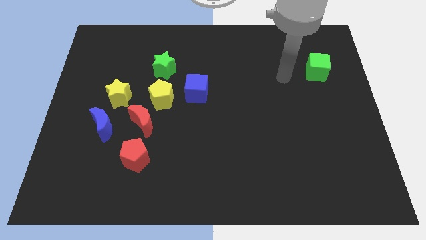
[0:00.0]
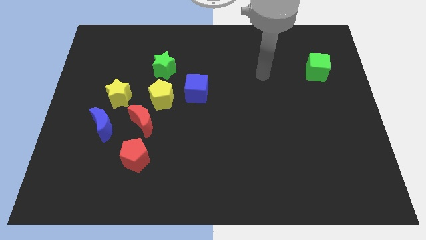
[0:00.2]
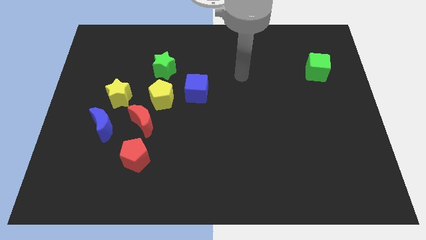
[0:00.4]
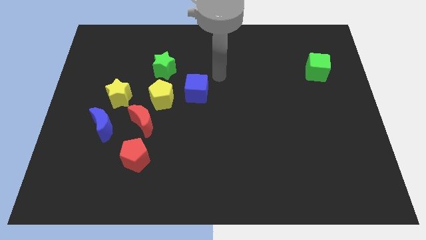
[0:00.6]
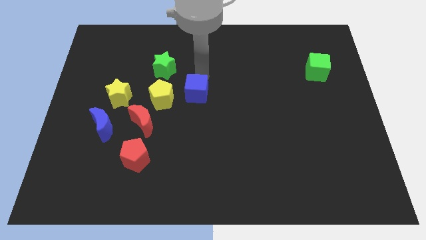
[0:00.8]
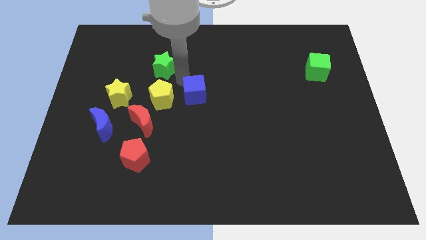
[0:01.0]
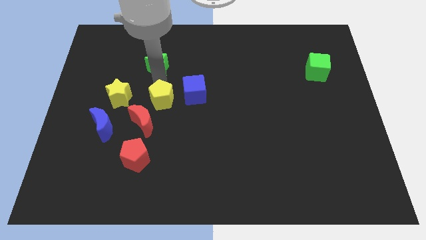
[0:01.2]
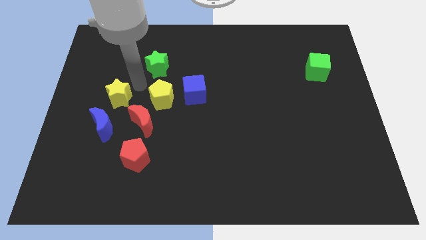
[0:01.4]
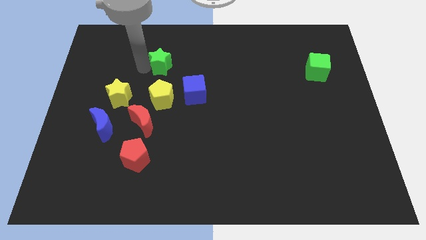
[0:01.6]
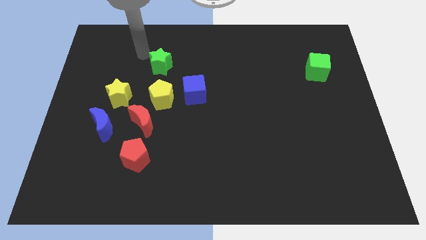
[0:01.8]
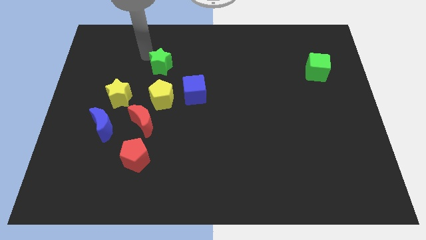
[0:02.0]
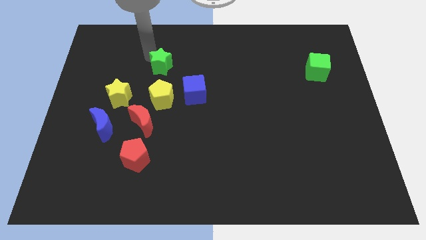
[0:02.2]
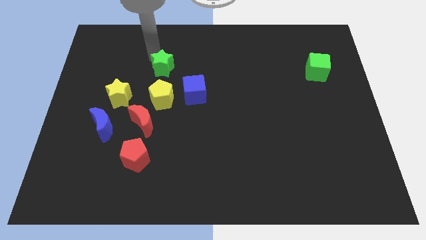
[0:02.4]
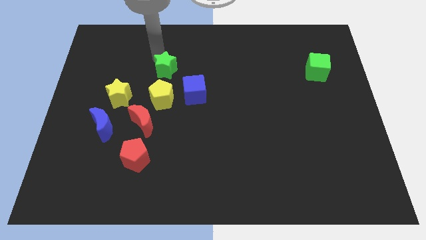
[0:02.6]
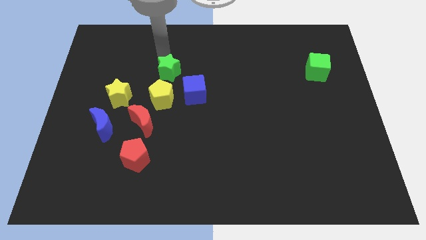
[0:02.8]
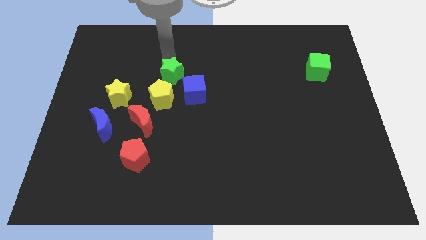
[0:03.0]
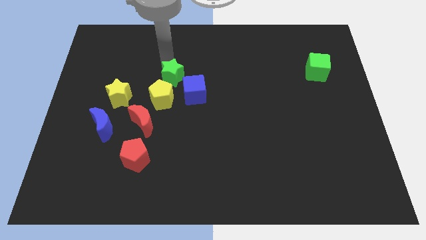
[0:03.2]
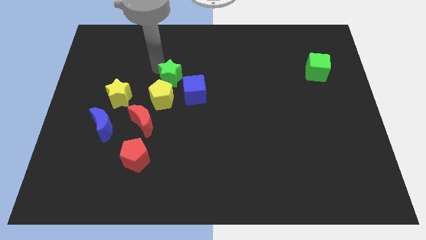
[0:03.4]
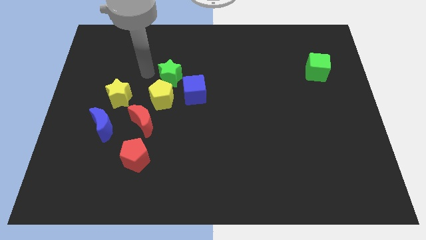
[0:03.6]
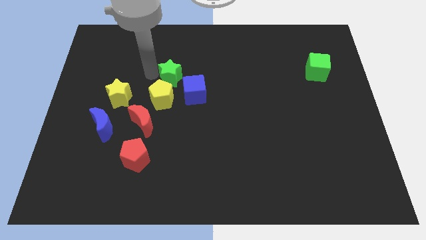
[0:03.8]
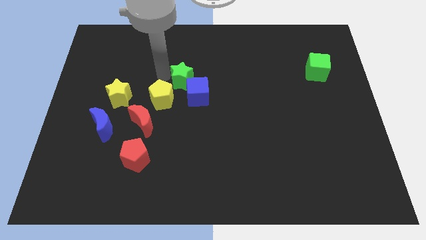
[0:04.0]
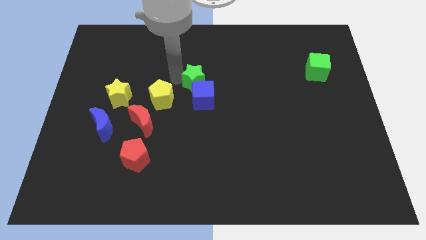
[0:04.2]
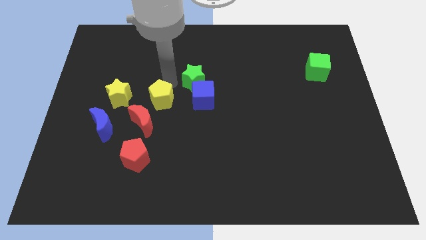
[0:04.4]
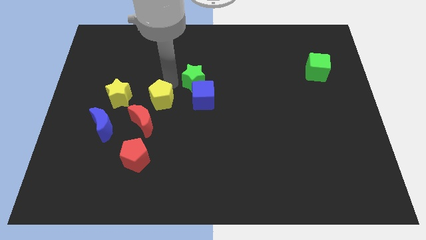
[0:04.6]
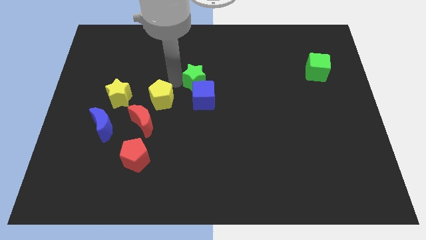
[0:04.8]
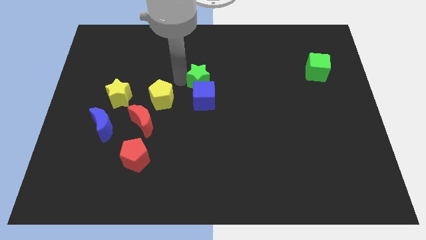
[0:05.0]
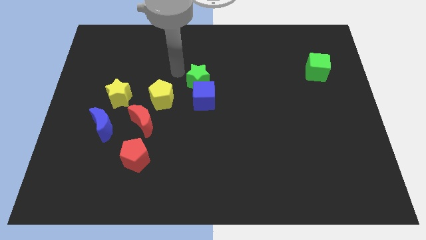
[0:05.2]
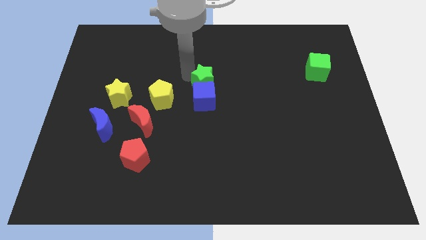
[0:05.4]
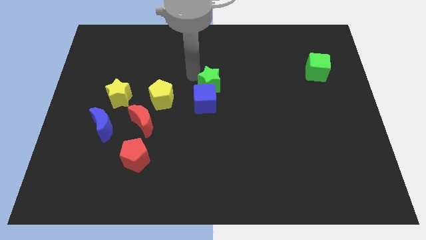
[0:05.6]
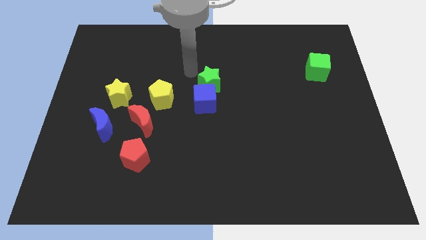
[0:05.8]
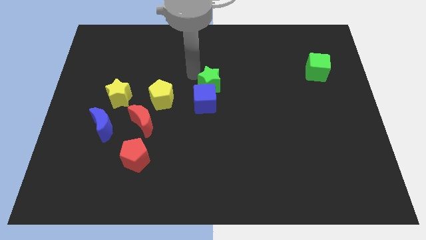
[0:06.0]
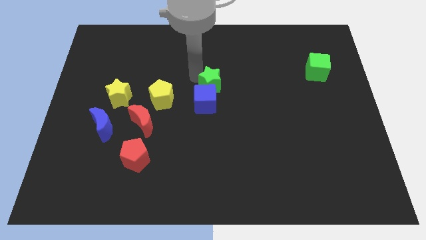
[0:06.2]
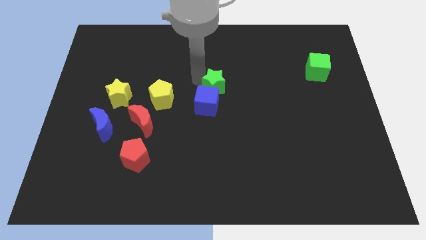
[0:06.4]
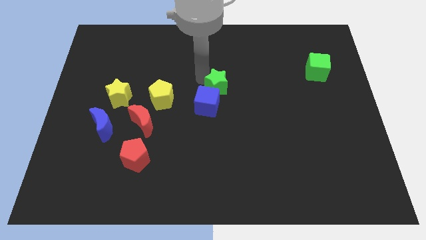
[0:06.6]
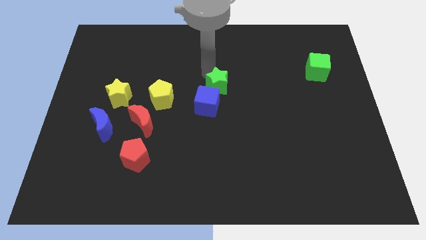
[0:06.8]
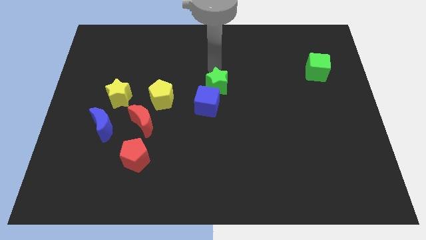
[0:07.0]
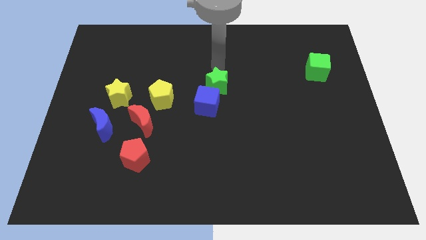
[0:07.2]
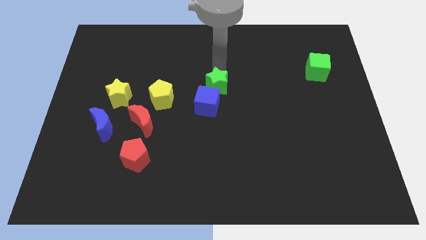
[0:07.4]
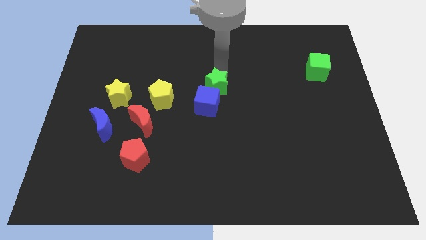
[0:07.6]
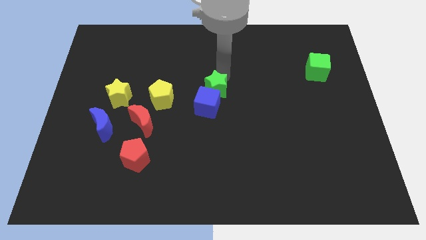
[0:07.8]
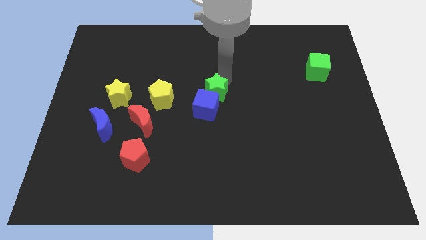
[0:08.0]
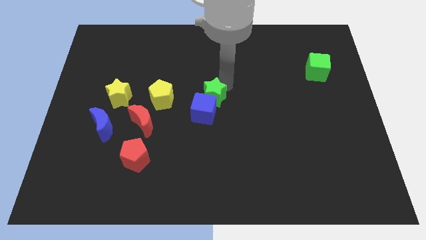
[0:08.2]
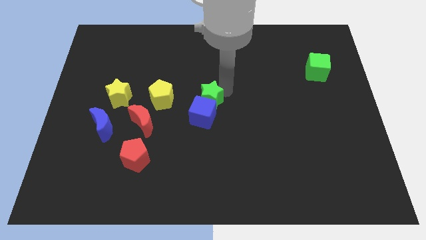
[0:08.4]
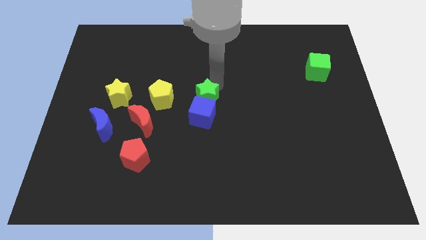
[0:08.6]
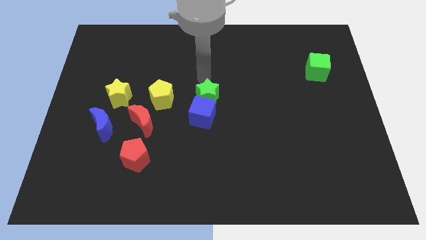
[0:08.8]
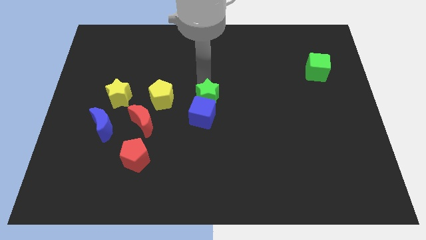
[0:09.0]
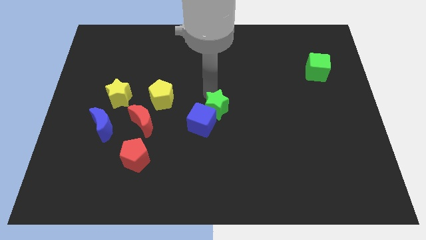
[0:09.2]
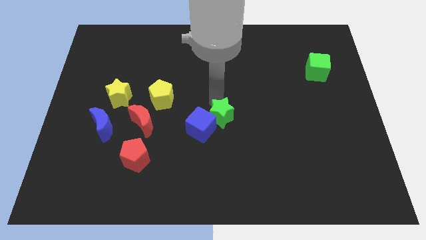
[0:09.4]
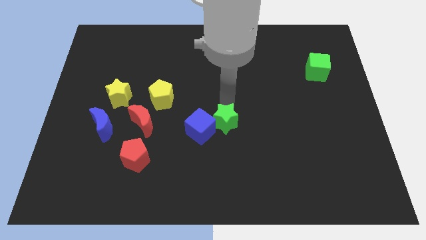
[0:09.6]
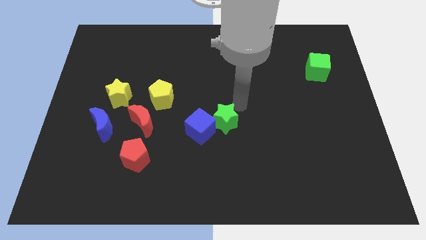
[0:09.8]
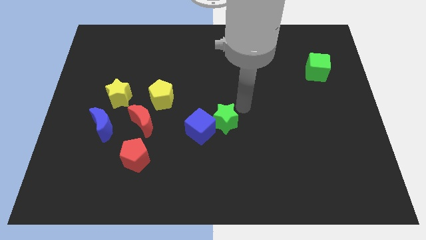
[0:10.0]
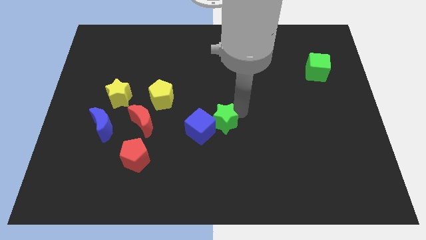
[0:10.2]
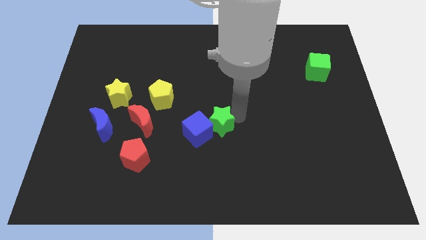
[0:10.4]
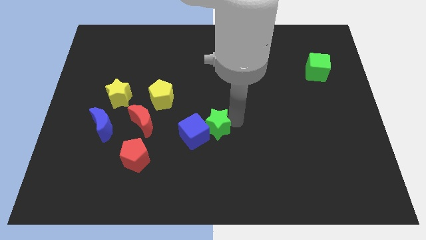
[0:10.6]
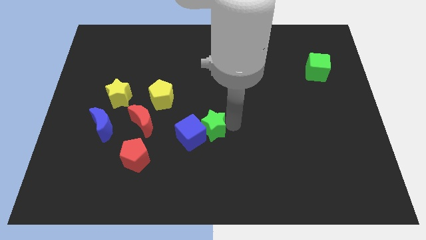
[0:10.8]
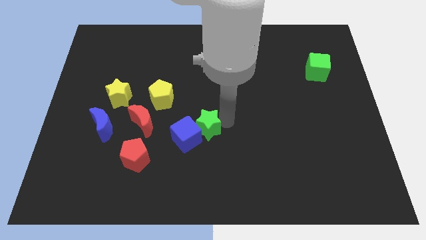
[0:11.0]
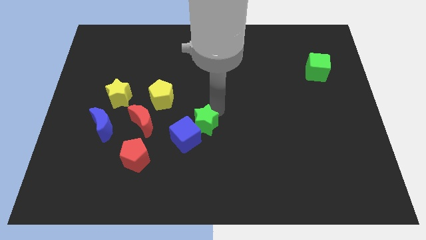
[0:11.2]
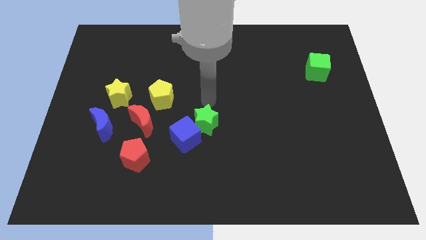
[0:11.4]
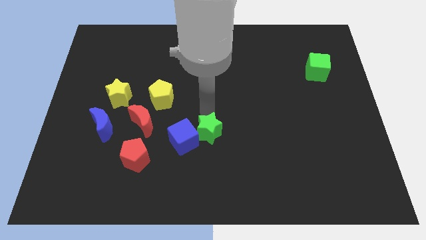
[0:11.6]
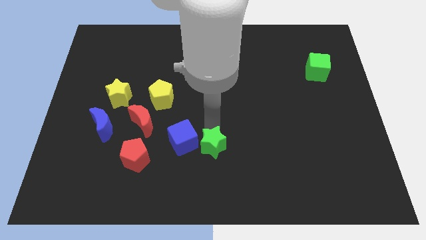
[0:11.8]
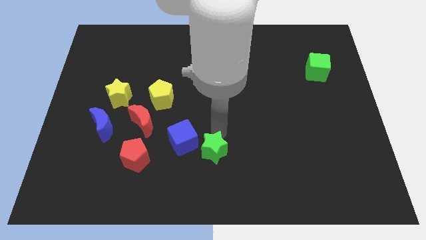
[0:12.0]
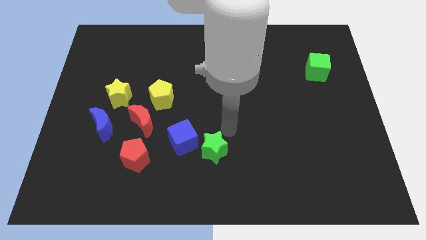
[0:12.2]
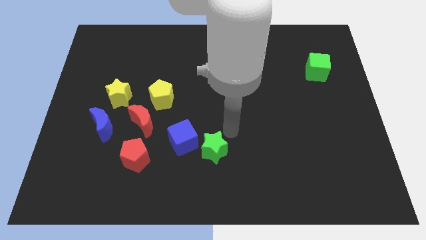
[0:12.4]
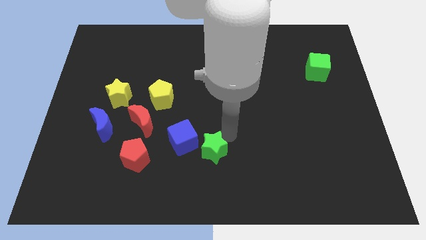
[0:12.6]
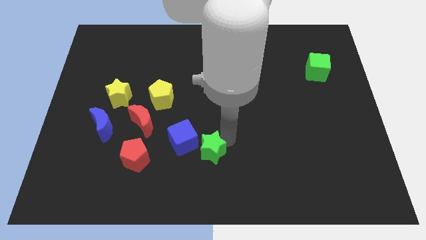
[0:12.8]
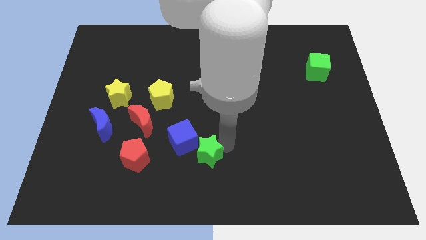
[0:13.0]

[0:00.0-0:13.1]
slide the green star to the bottom side
